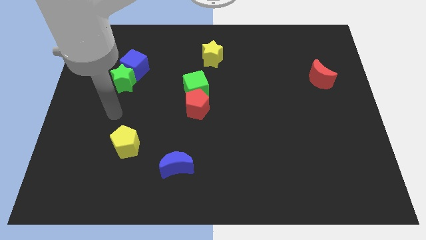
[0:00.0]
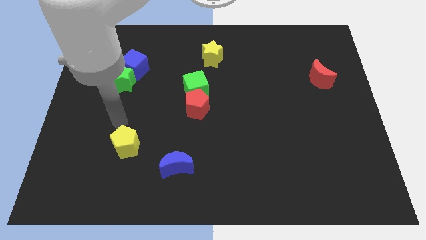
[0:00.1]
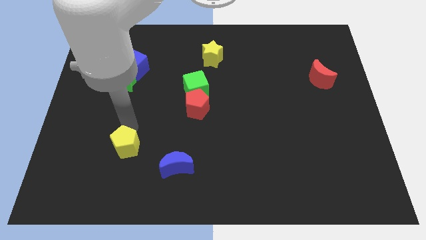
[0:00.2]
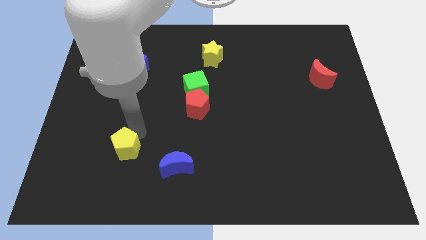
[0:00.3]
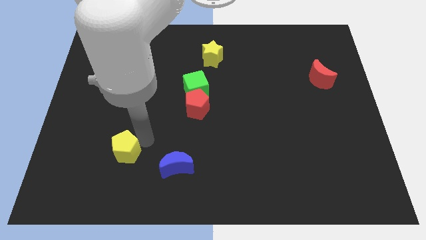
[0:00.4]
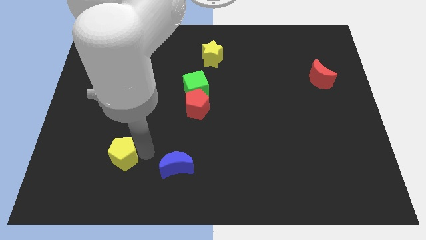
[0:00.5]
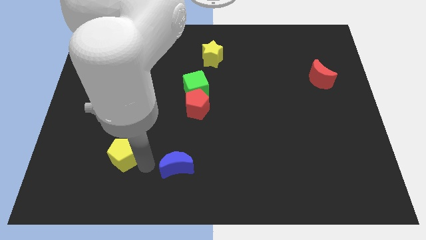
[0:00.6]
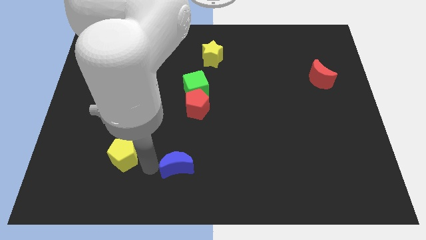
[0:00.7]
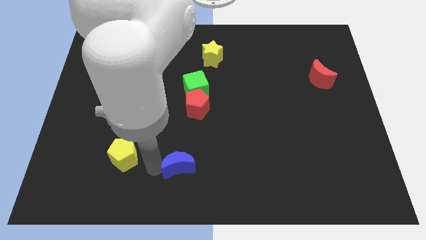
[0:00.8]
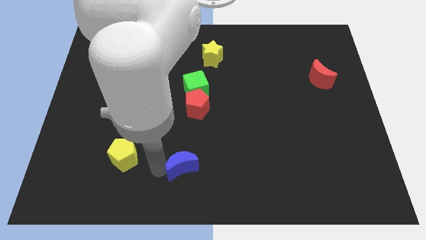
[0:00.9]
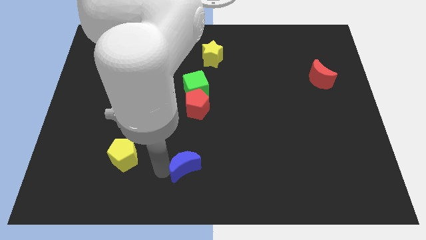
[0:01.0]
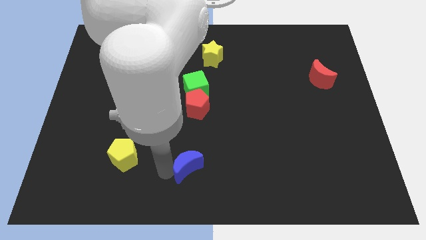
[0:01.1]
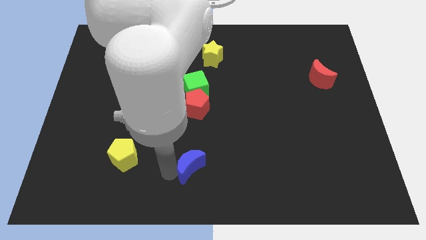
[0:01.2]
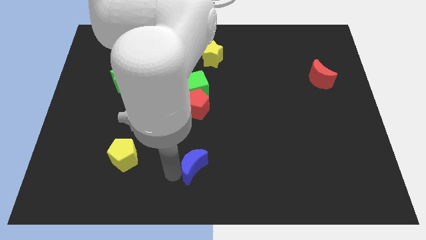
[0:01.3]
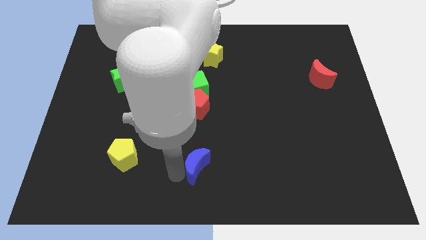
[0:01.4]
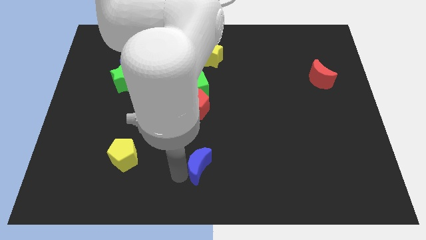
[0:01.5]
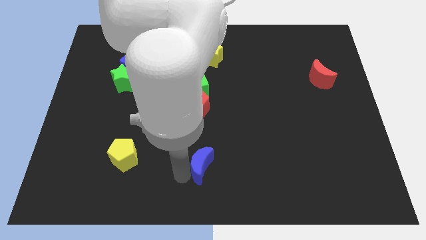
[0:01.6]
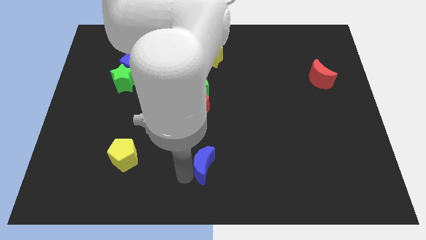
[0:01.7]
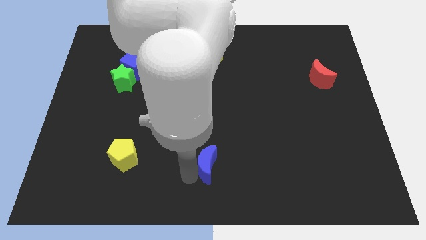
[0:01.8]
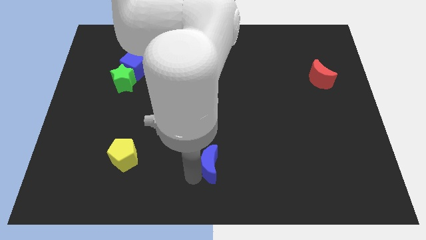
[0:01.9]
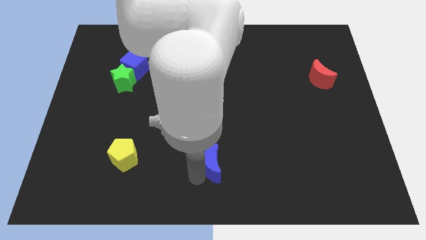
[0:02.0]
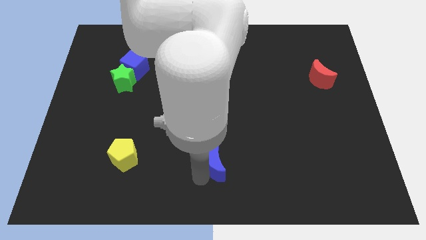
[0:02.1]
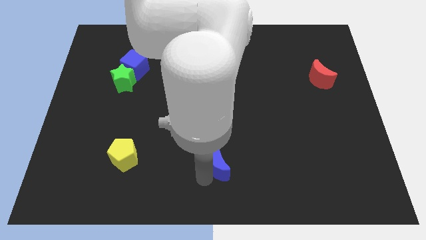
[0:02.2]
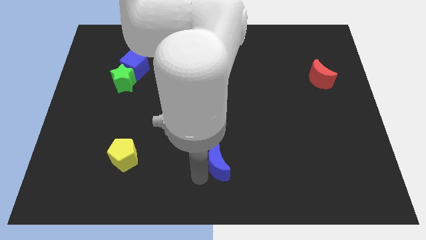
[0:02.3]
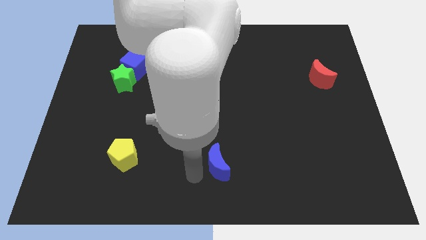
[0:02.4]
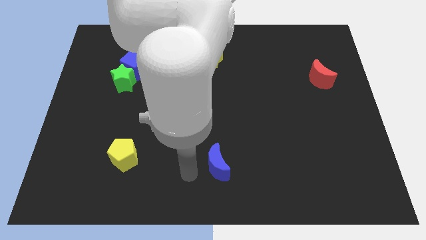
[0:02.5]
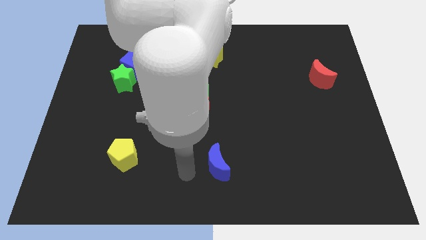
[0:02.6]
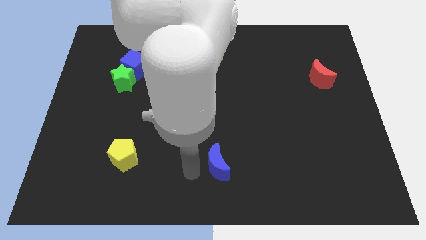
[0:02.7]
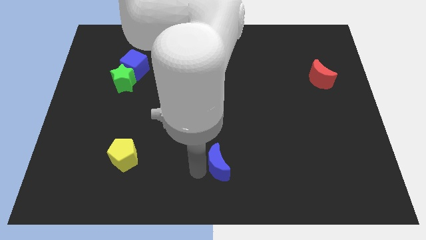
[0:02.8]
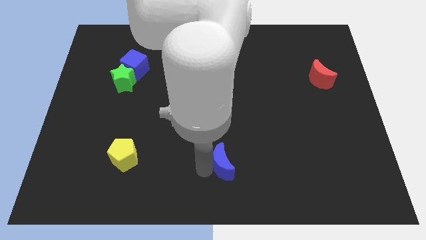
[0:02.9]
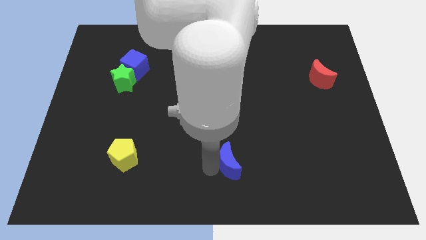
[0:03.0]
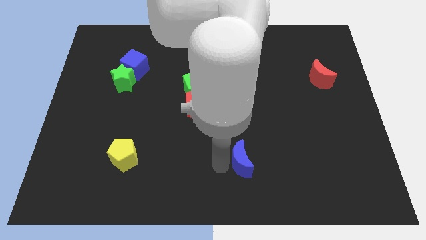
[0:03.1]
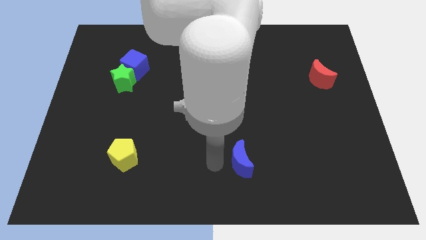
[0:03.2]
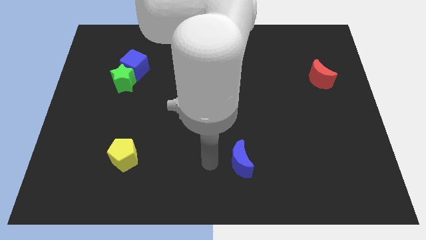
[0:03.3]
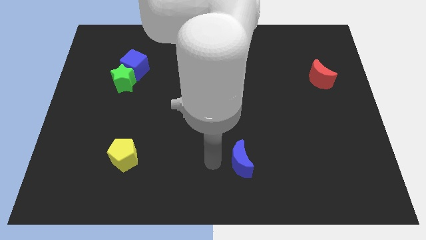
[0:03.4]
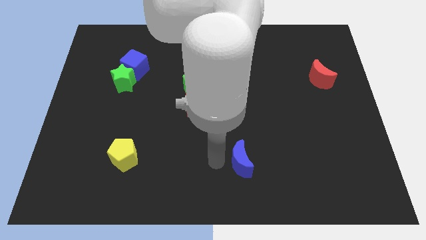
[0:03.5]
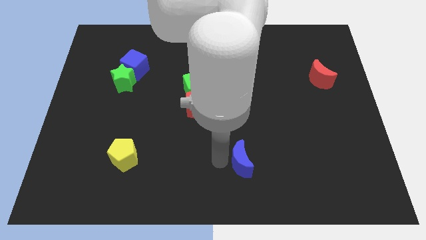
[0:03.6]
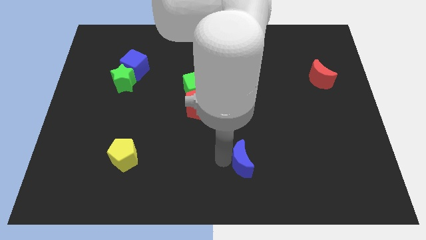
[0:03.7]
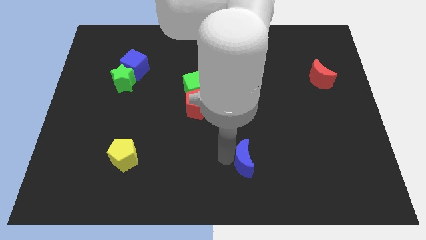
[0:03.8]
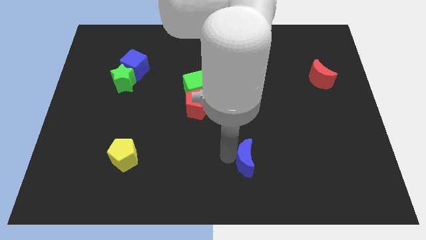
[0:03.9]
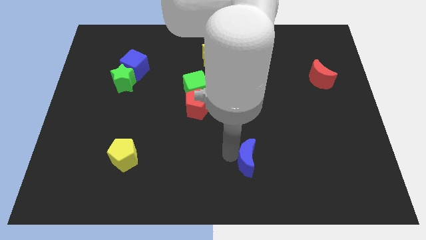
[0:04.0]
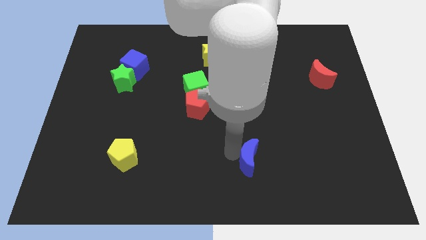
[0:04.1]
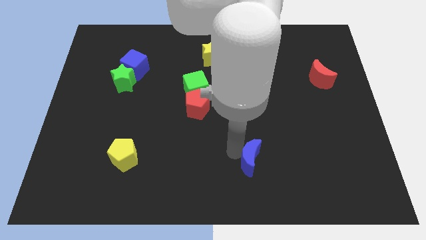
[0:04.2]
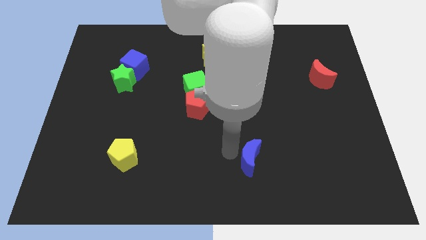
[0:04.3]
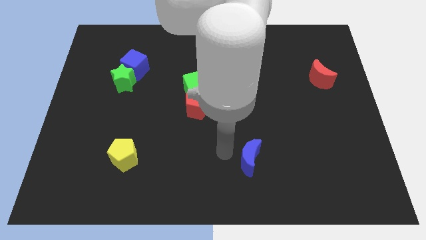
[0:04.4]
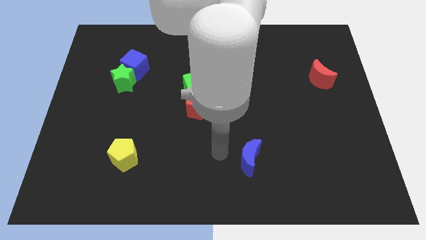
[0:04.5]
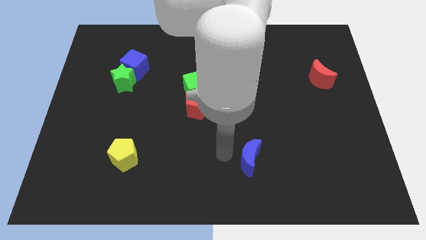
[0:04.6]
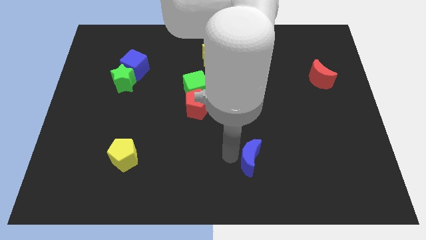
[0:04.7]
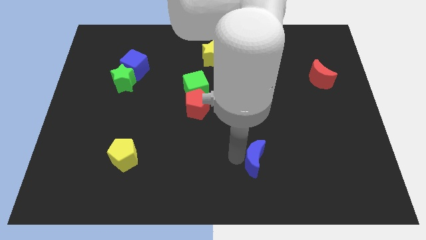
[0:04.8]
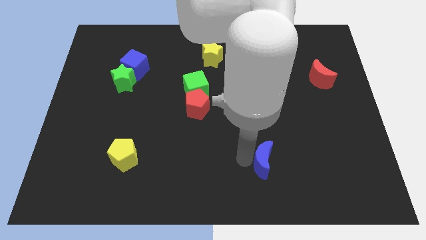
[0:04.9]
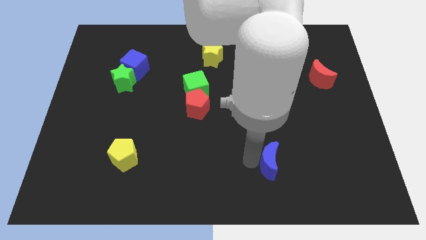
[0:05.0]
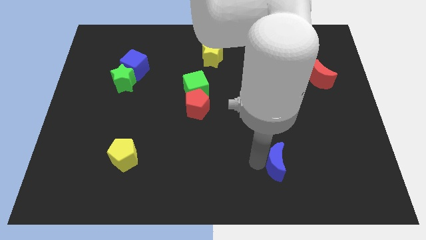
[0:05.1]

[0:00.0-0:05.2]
slide the blue moon right

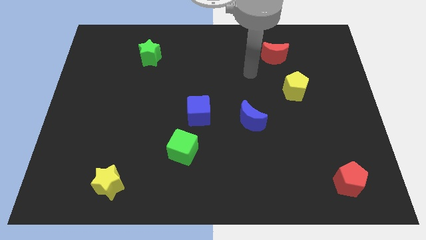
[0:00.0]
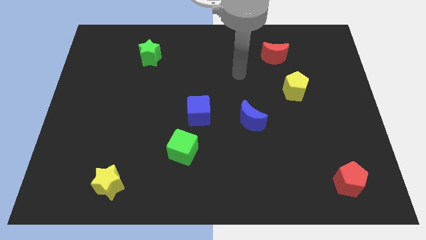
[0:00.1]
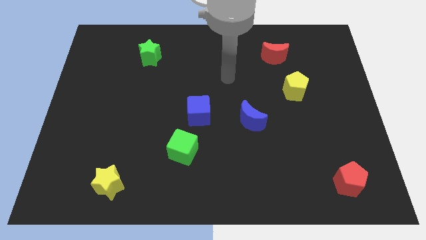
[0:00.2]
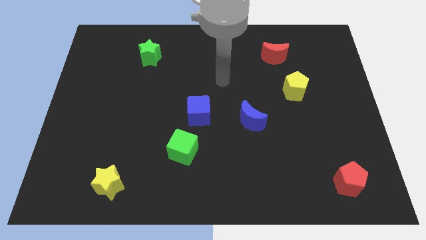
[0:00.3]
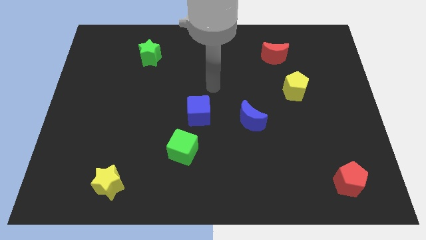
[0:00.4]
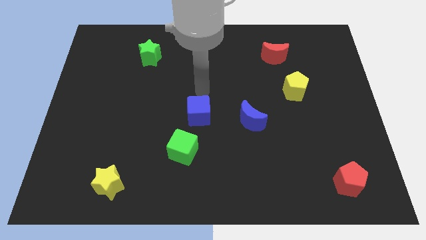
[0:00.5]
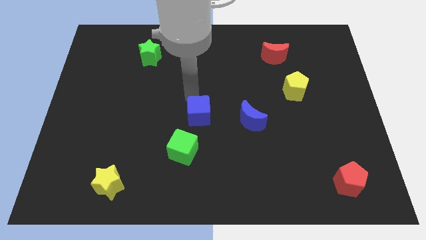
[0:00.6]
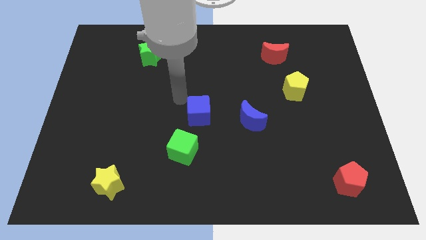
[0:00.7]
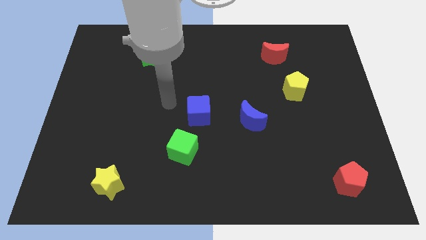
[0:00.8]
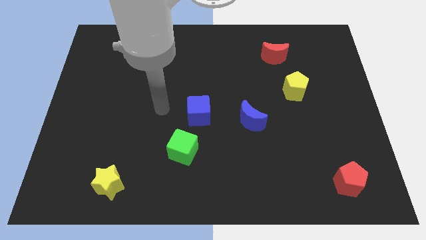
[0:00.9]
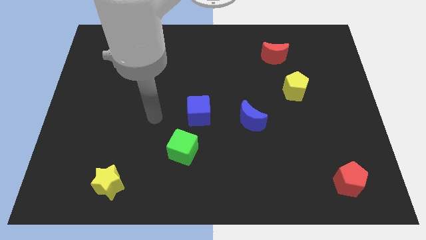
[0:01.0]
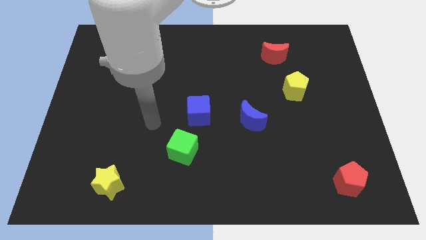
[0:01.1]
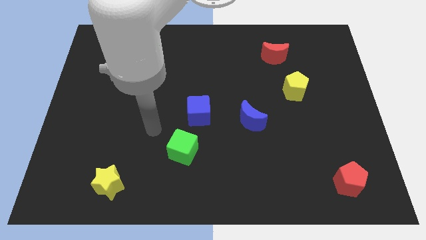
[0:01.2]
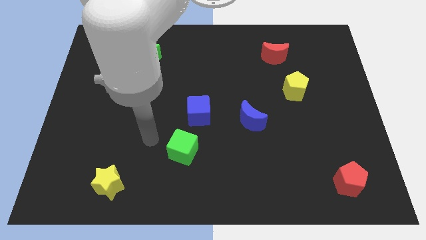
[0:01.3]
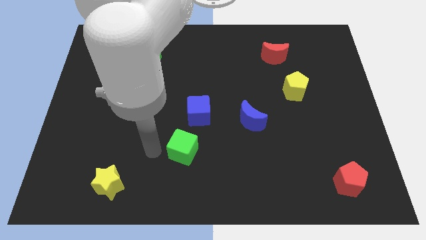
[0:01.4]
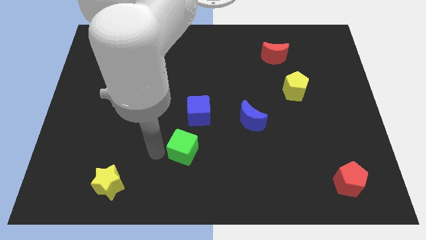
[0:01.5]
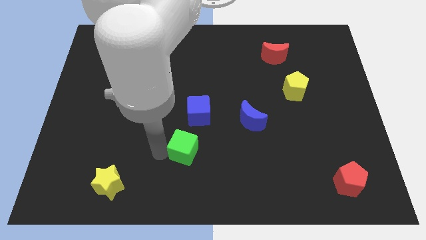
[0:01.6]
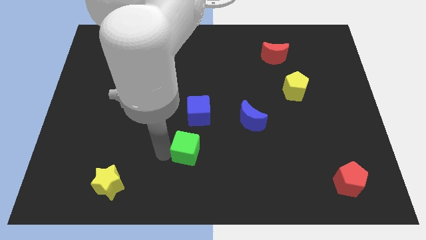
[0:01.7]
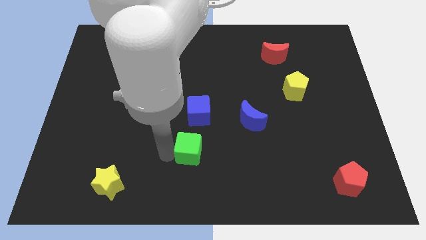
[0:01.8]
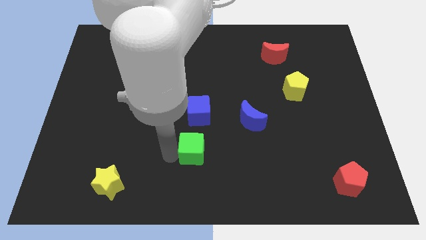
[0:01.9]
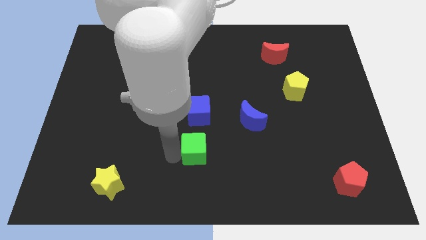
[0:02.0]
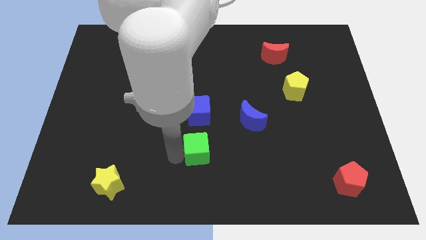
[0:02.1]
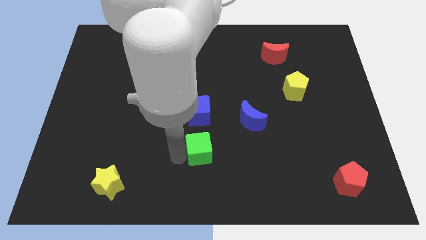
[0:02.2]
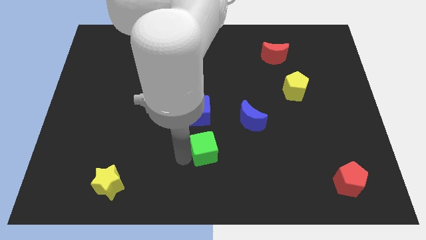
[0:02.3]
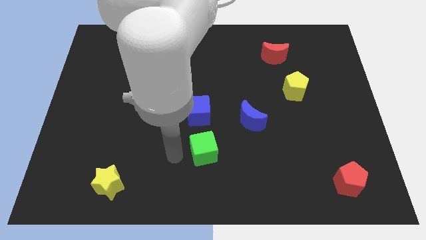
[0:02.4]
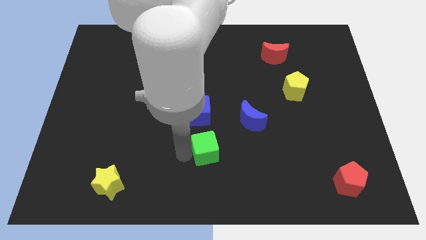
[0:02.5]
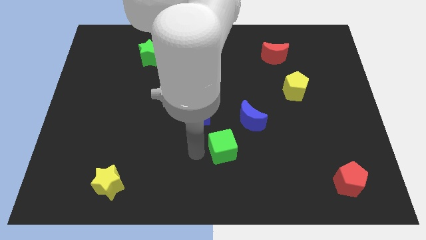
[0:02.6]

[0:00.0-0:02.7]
slide the green cube a little right

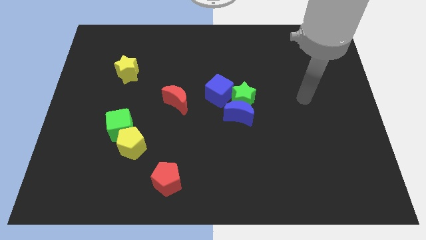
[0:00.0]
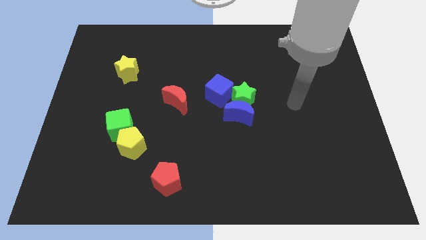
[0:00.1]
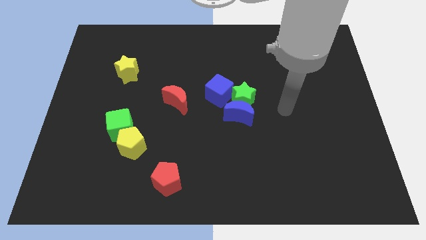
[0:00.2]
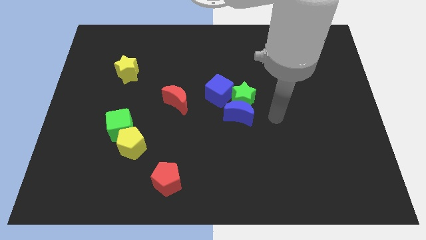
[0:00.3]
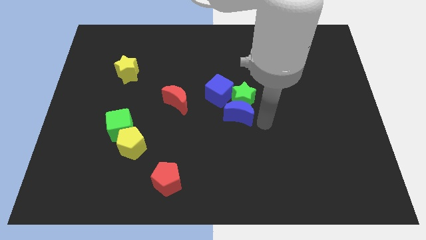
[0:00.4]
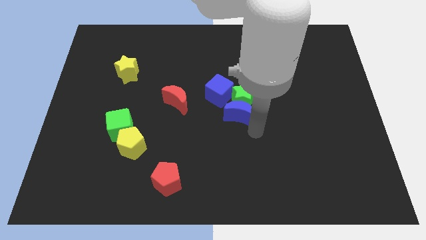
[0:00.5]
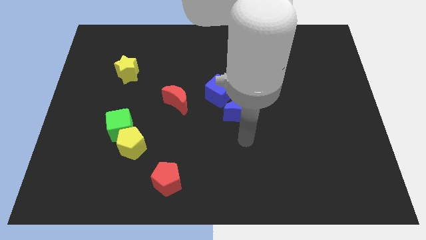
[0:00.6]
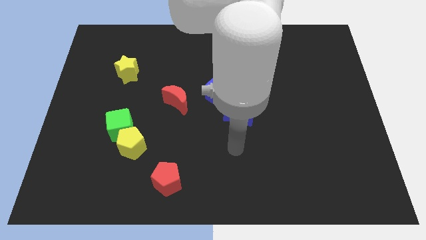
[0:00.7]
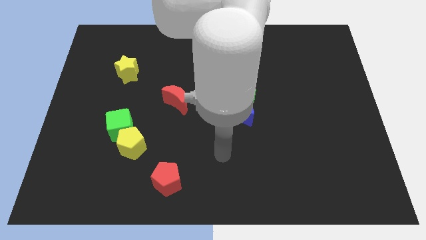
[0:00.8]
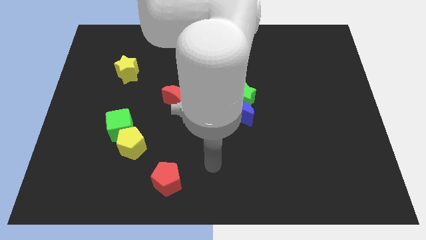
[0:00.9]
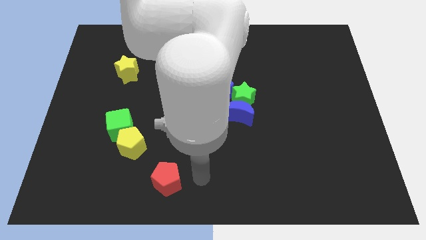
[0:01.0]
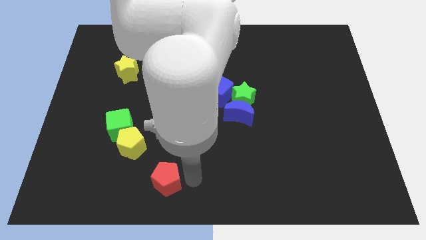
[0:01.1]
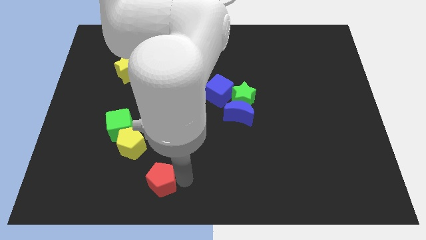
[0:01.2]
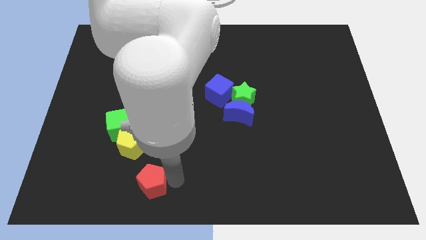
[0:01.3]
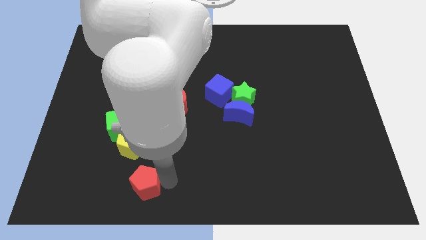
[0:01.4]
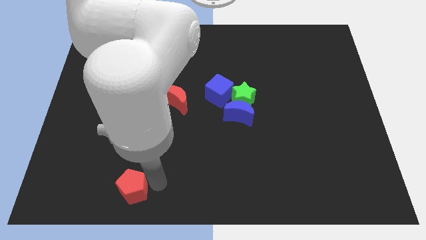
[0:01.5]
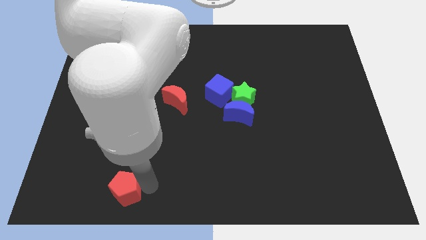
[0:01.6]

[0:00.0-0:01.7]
slide the red pentagon to the left a little bit
